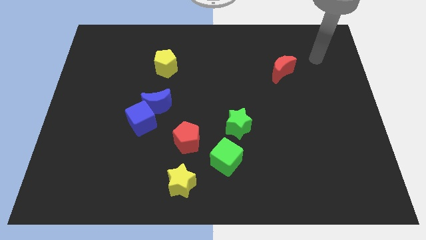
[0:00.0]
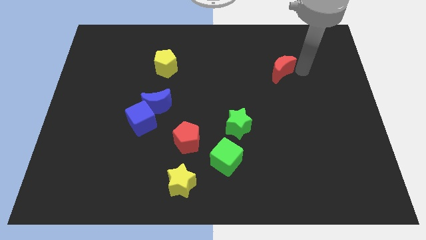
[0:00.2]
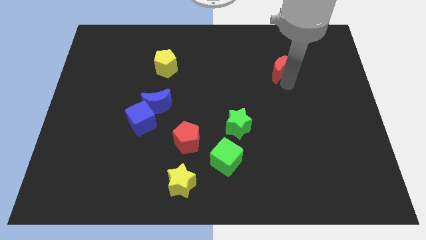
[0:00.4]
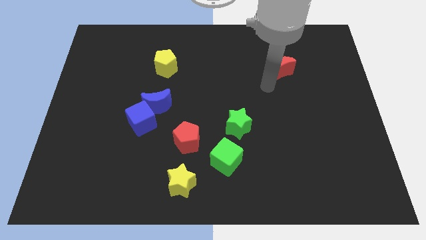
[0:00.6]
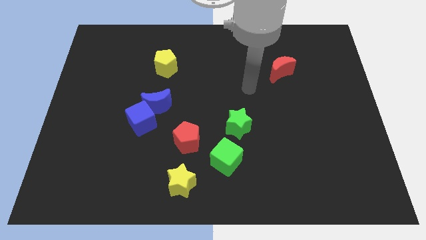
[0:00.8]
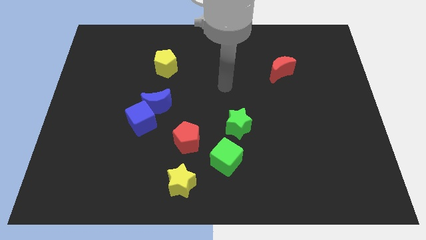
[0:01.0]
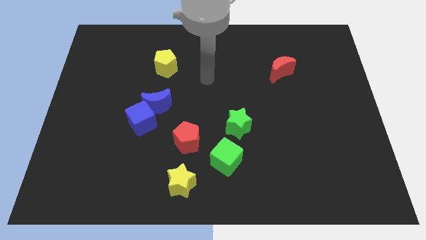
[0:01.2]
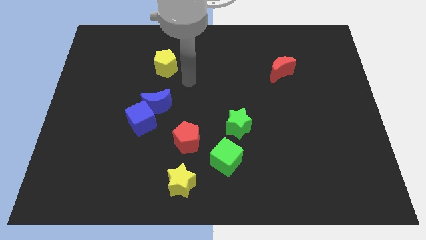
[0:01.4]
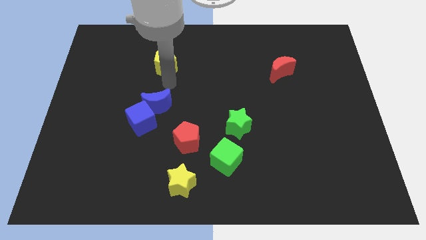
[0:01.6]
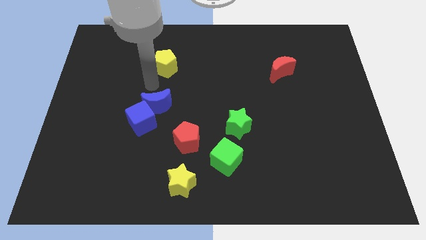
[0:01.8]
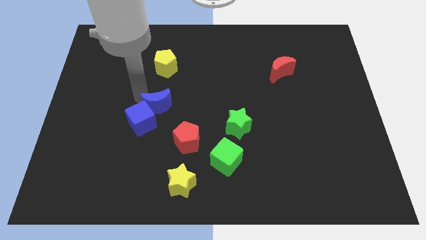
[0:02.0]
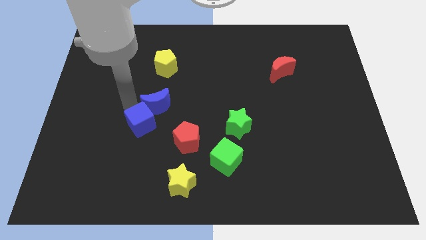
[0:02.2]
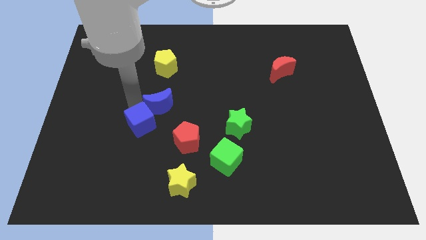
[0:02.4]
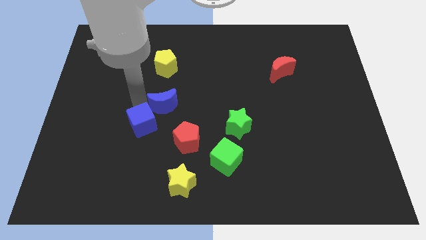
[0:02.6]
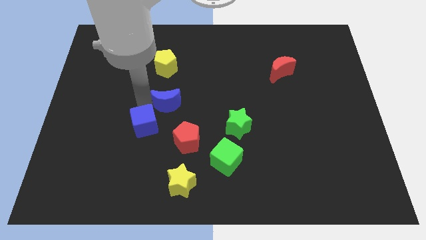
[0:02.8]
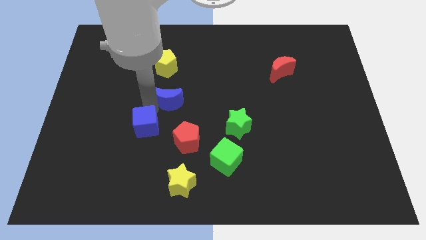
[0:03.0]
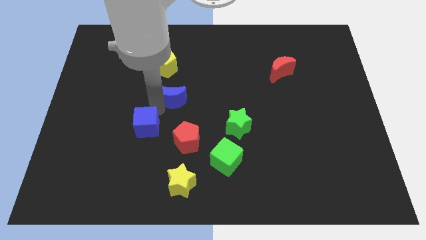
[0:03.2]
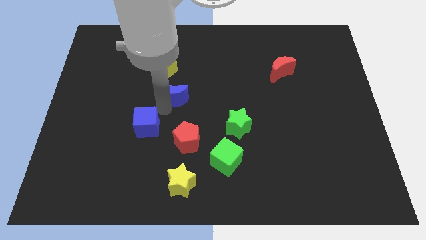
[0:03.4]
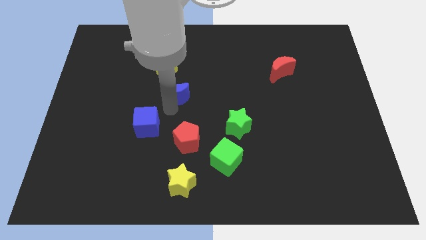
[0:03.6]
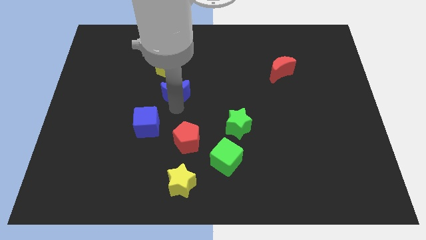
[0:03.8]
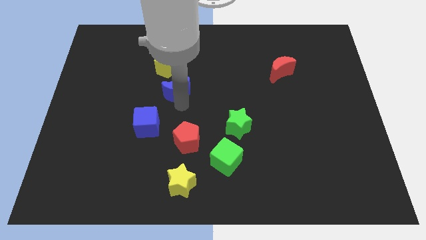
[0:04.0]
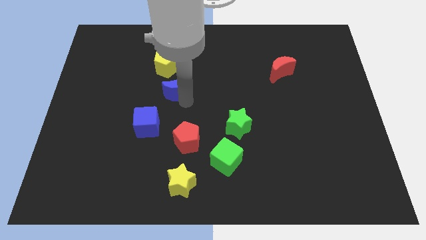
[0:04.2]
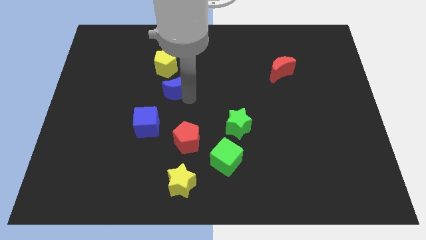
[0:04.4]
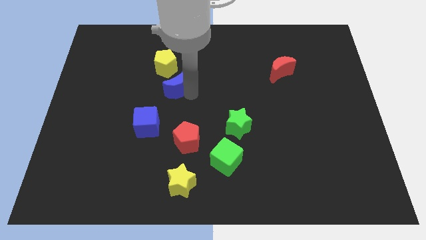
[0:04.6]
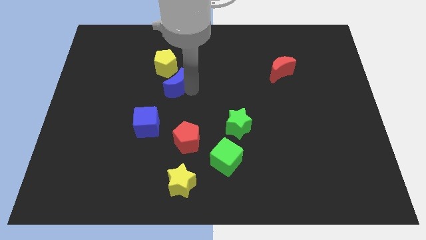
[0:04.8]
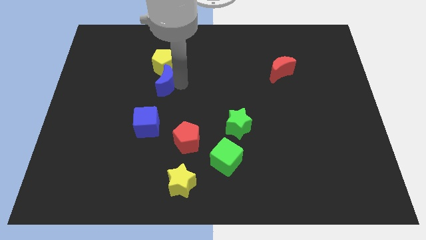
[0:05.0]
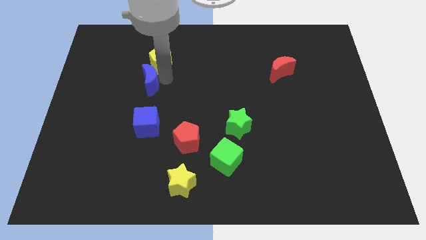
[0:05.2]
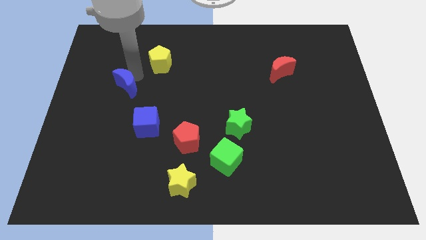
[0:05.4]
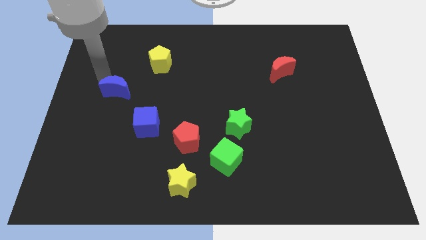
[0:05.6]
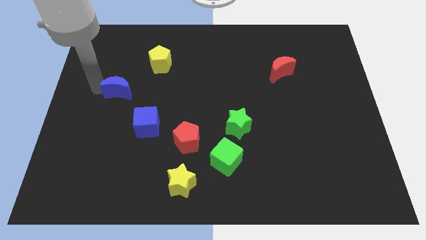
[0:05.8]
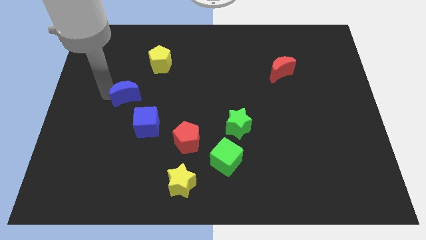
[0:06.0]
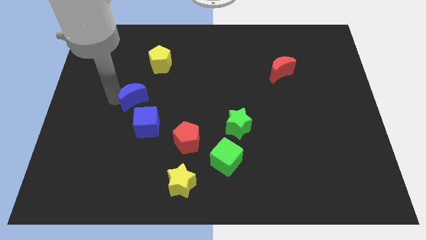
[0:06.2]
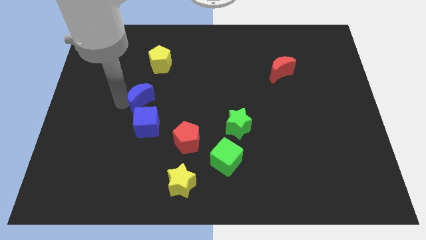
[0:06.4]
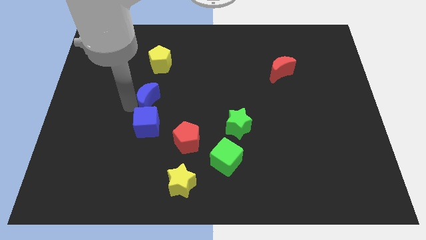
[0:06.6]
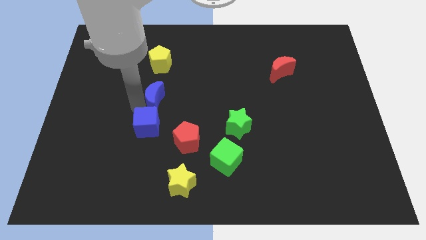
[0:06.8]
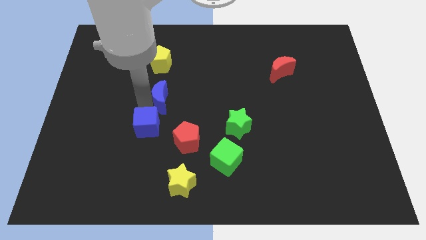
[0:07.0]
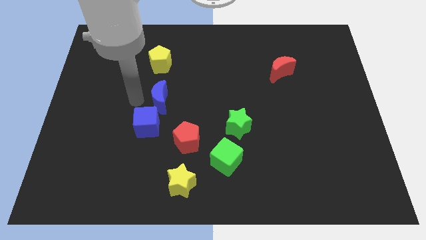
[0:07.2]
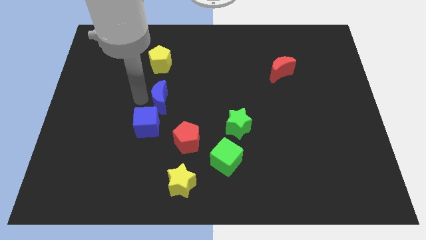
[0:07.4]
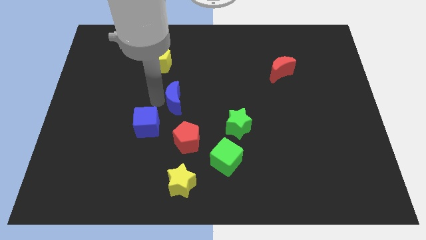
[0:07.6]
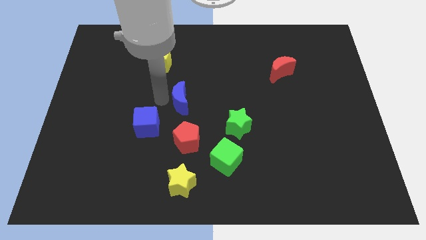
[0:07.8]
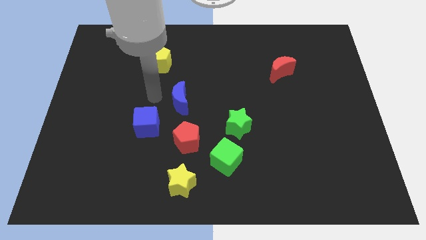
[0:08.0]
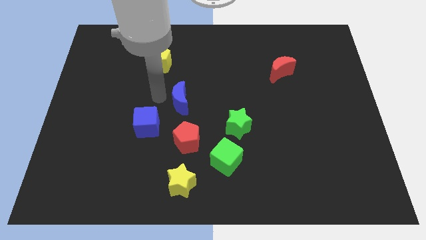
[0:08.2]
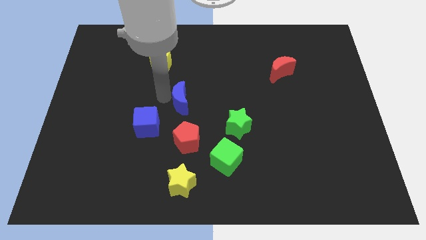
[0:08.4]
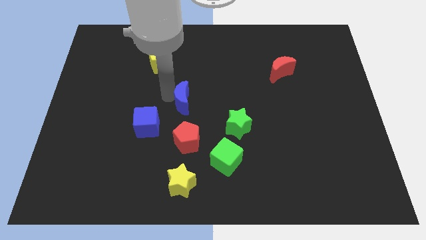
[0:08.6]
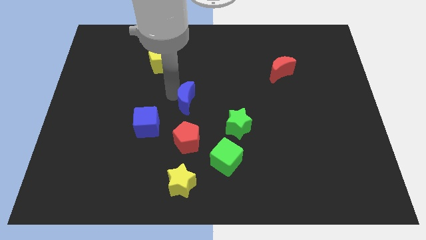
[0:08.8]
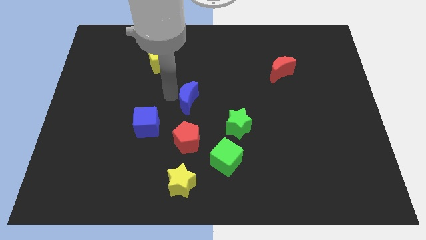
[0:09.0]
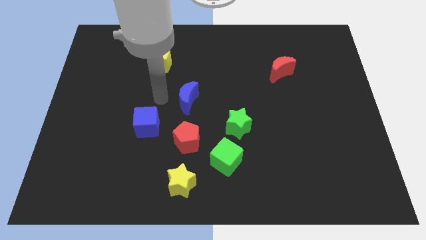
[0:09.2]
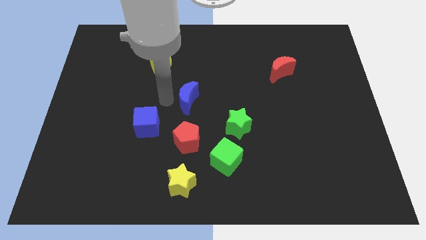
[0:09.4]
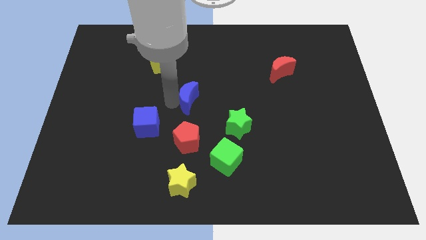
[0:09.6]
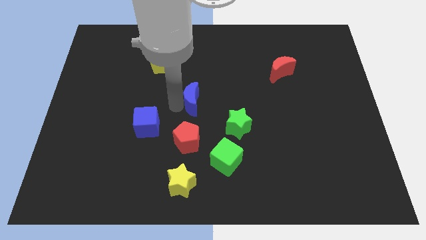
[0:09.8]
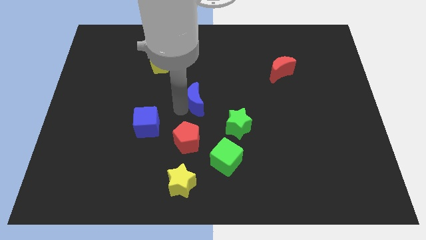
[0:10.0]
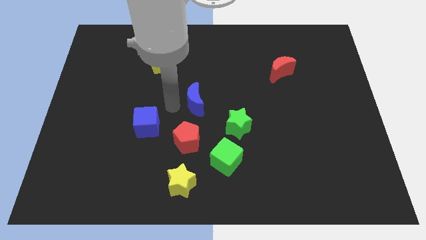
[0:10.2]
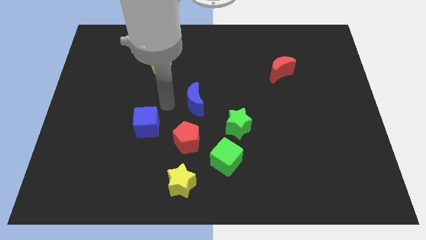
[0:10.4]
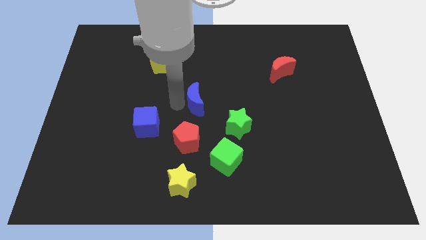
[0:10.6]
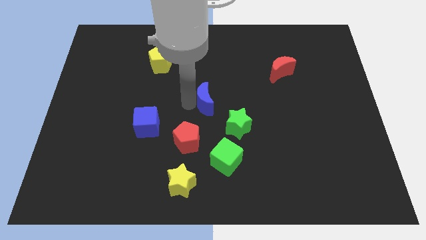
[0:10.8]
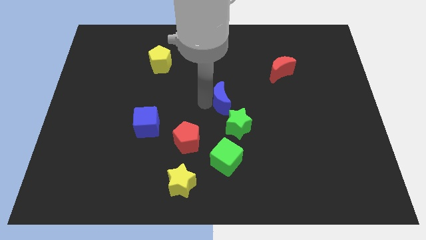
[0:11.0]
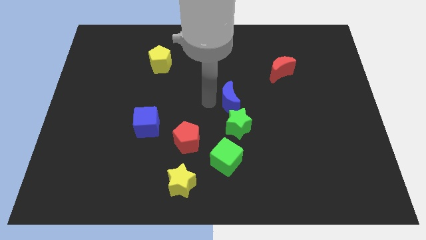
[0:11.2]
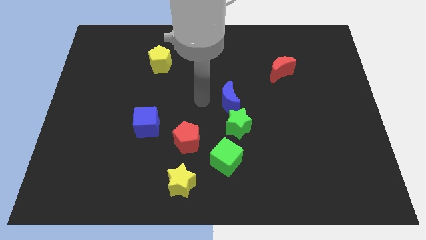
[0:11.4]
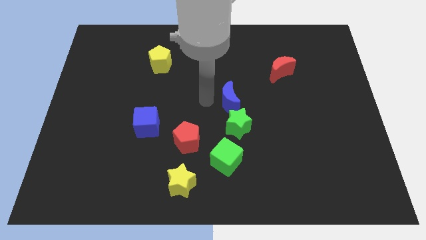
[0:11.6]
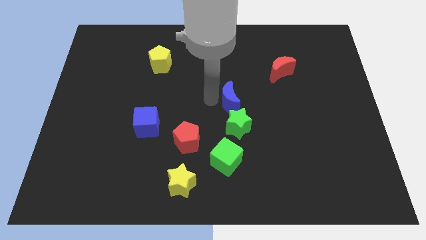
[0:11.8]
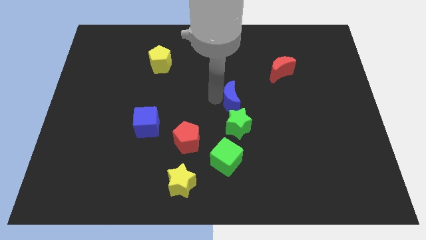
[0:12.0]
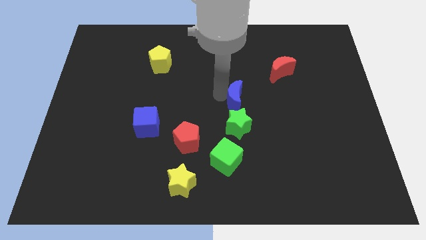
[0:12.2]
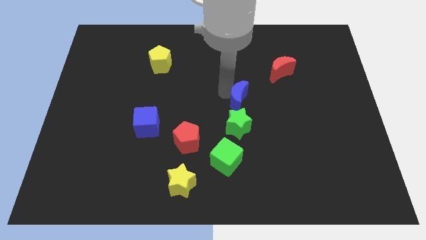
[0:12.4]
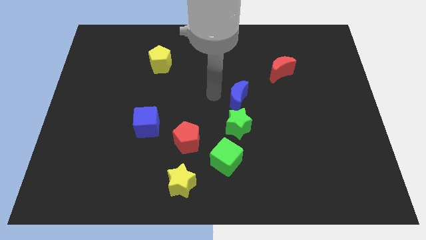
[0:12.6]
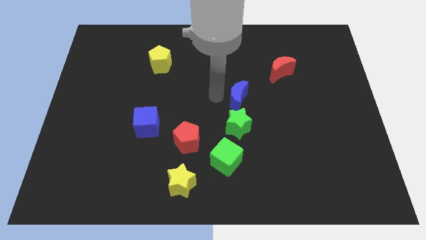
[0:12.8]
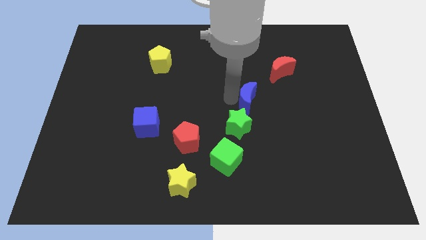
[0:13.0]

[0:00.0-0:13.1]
push the blue moon right

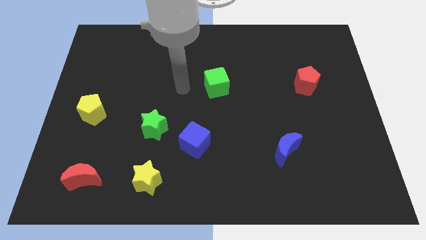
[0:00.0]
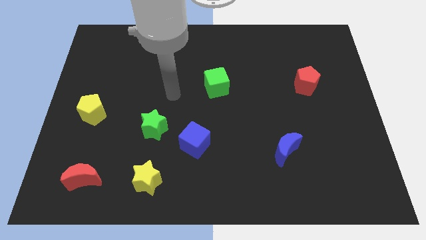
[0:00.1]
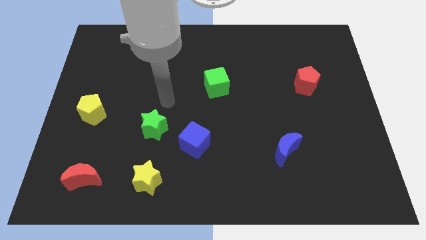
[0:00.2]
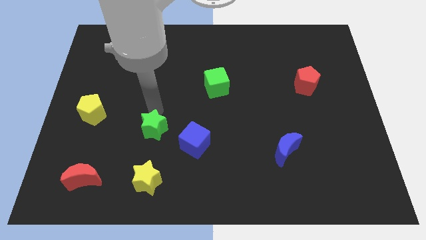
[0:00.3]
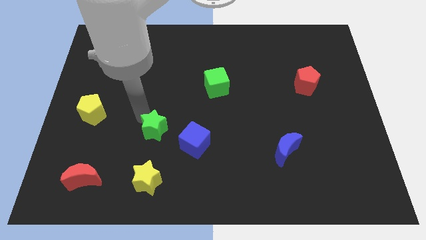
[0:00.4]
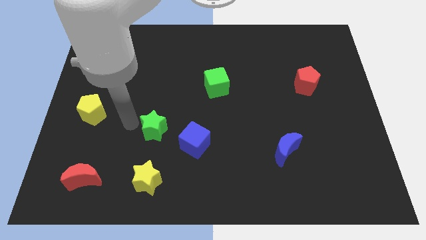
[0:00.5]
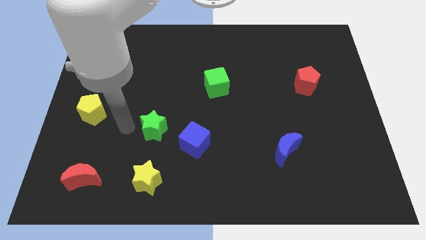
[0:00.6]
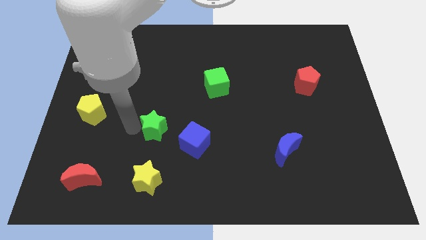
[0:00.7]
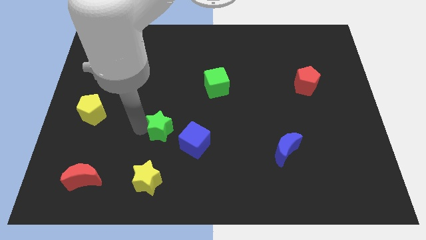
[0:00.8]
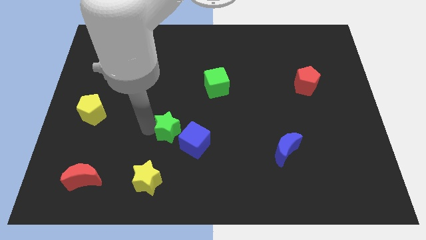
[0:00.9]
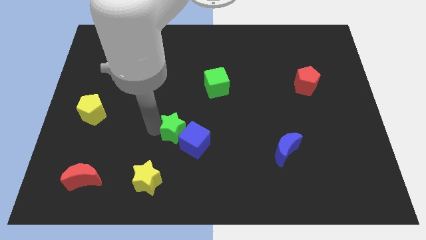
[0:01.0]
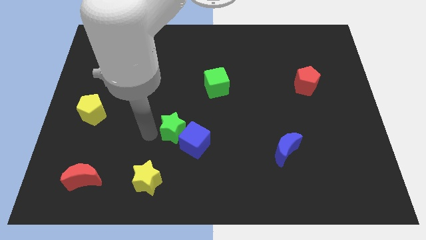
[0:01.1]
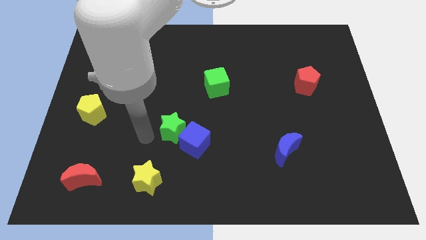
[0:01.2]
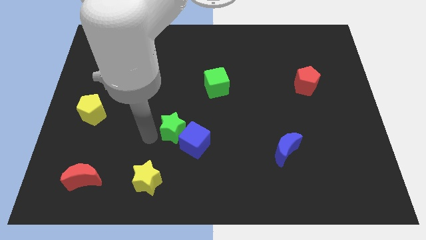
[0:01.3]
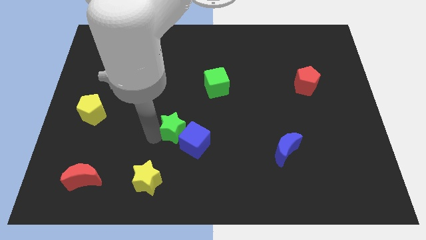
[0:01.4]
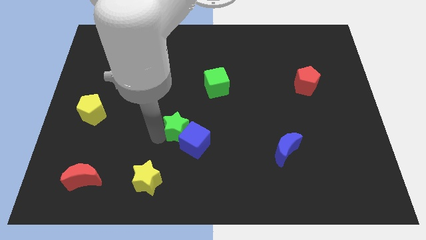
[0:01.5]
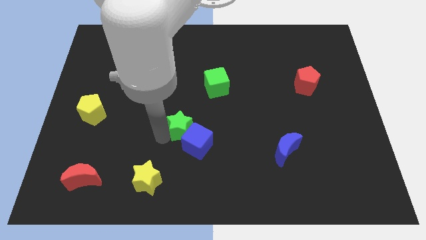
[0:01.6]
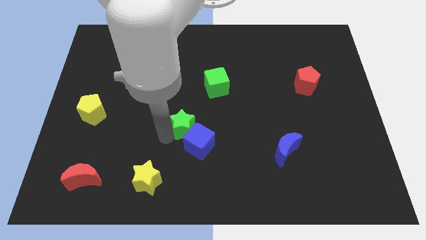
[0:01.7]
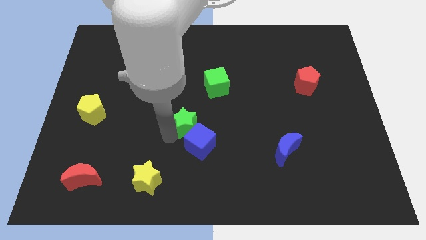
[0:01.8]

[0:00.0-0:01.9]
slightly move the green star right
